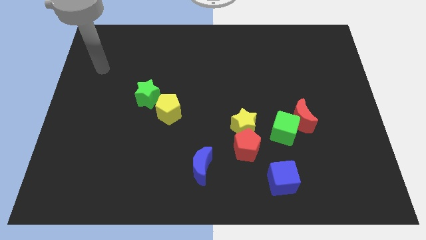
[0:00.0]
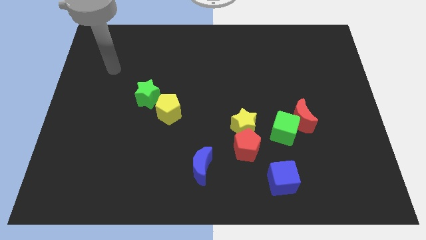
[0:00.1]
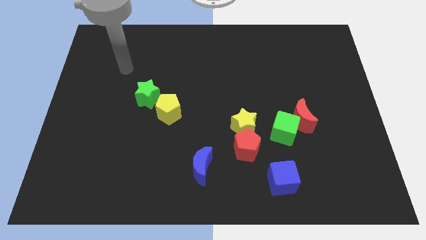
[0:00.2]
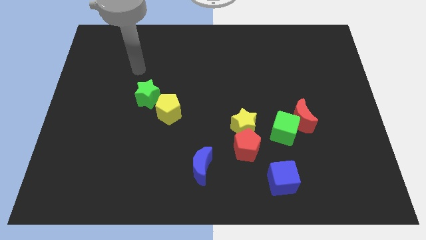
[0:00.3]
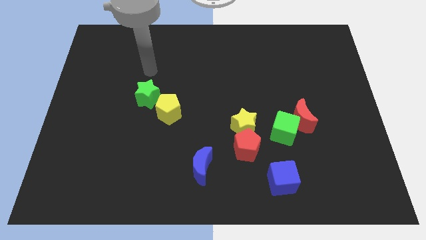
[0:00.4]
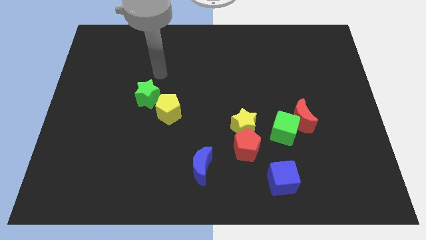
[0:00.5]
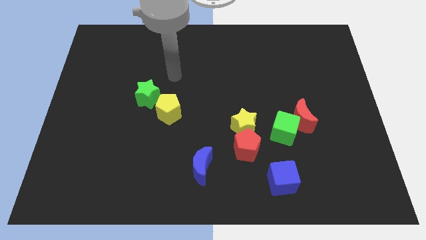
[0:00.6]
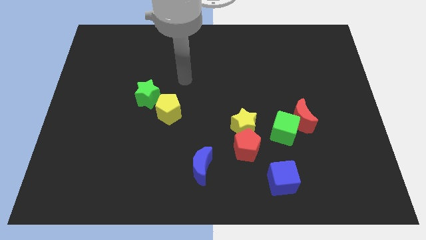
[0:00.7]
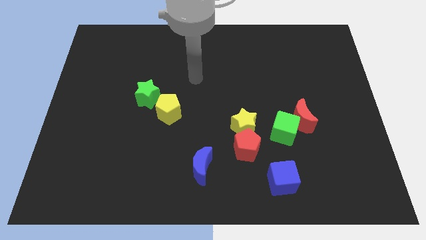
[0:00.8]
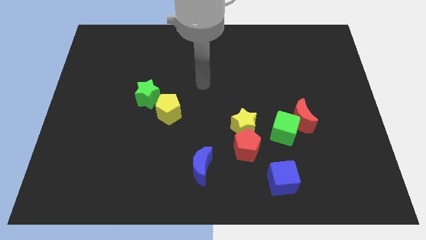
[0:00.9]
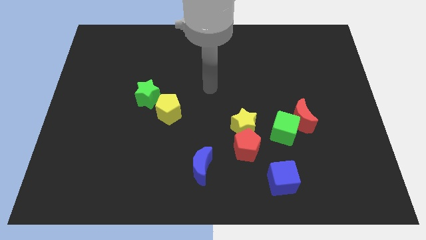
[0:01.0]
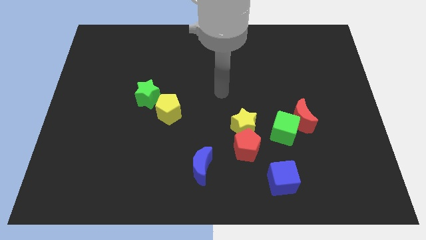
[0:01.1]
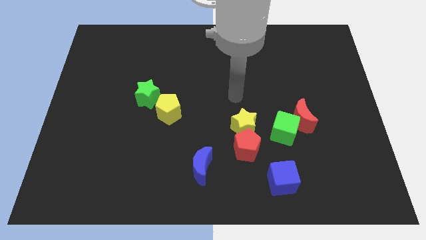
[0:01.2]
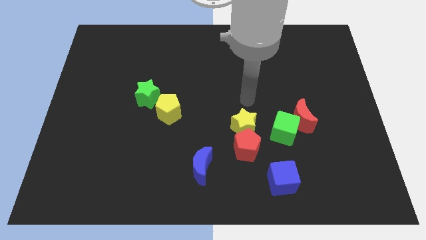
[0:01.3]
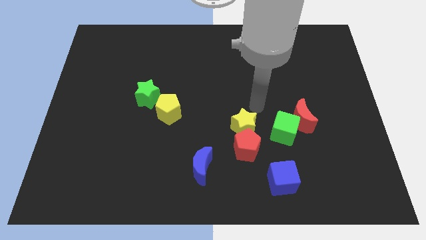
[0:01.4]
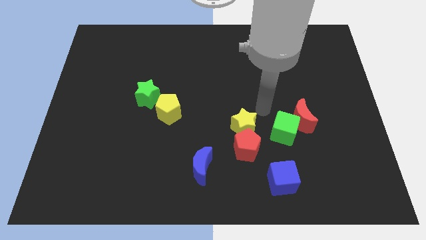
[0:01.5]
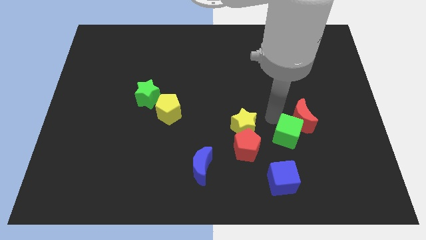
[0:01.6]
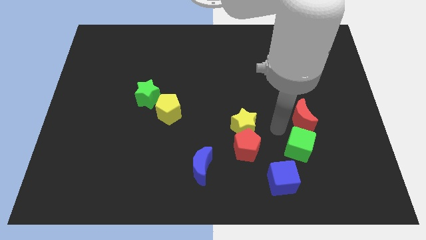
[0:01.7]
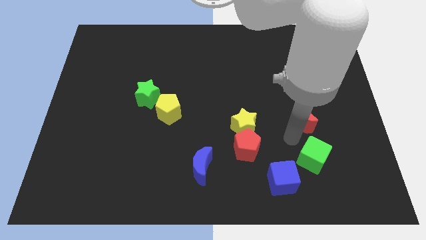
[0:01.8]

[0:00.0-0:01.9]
move the red moon away from the green cube

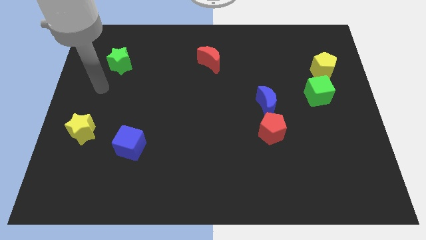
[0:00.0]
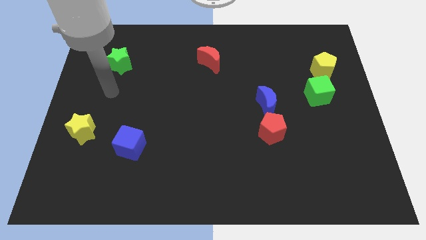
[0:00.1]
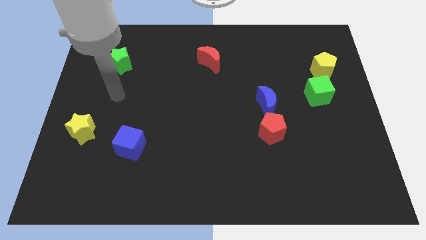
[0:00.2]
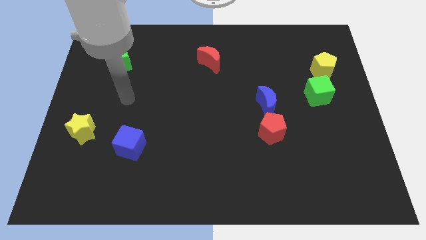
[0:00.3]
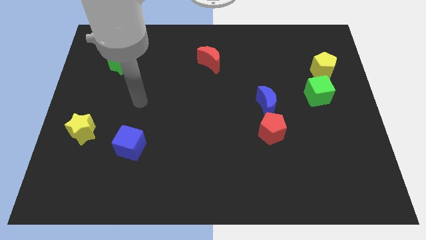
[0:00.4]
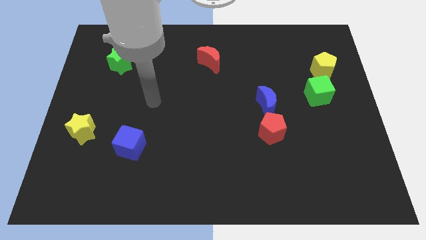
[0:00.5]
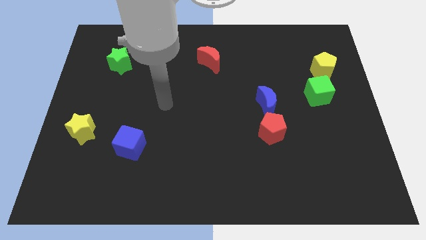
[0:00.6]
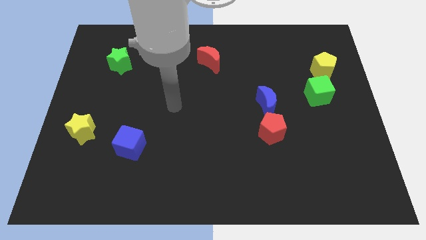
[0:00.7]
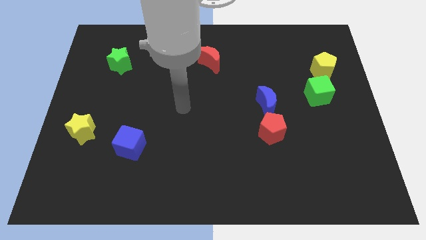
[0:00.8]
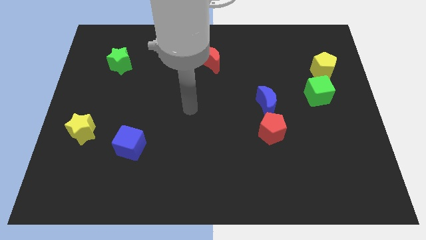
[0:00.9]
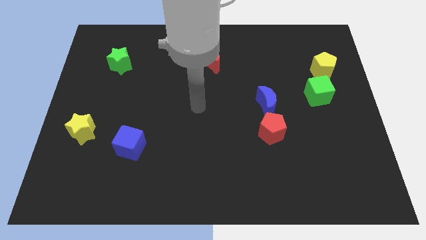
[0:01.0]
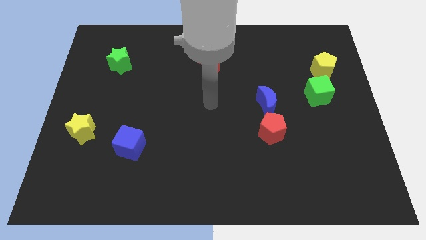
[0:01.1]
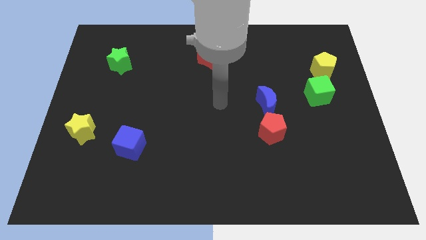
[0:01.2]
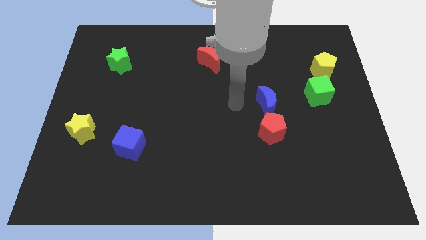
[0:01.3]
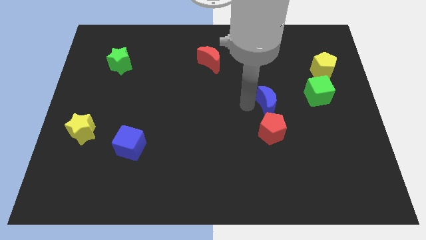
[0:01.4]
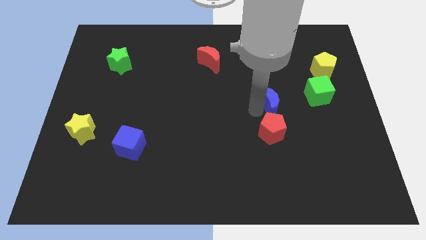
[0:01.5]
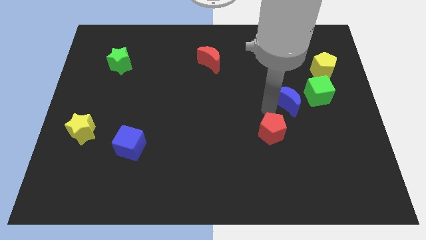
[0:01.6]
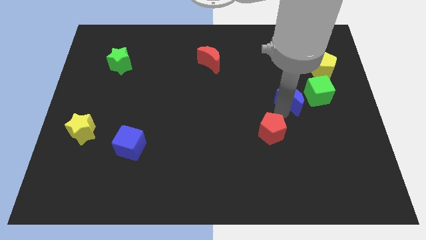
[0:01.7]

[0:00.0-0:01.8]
separate the red pentagon from the blue moon

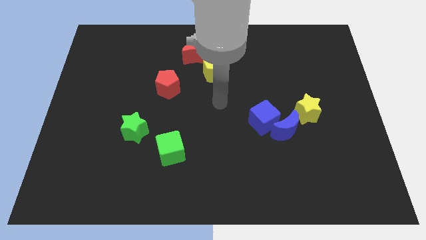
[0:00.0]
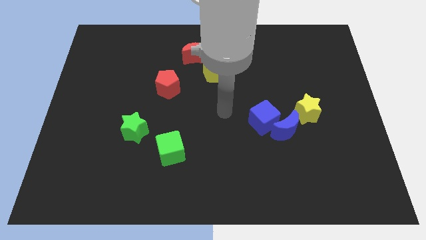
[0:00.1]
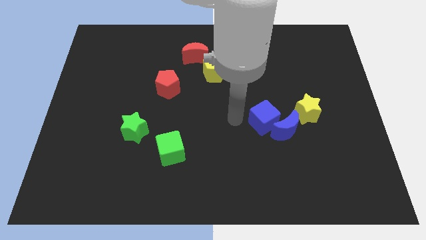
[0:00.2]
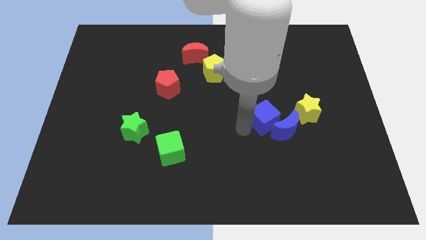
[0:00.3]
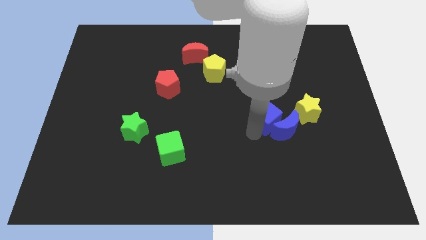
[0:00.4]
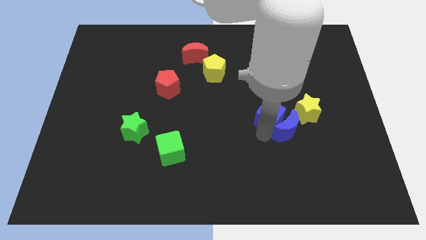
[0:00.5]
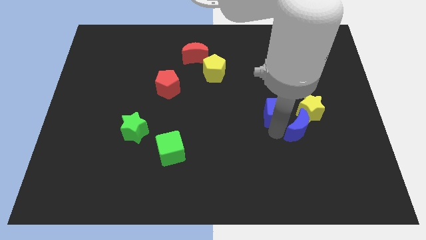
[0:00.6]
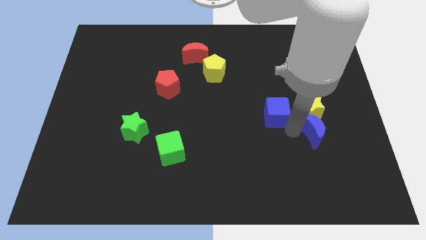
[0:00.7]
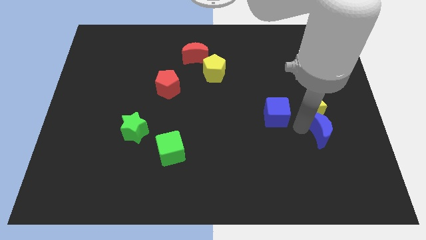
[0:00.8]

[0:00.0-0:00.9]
pull the blue cube apart from the blue moon

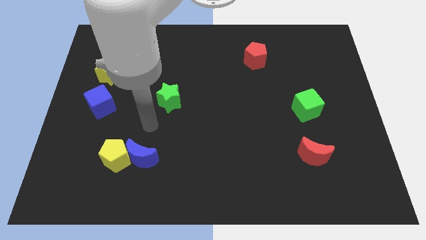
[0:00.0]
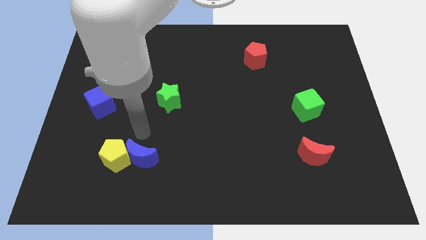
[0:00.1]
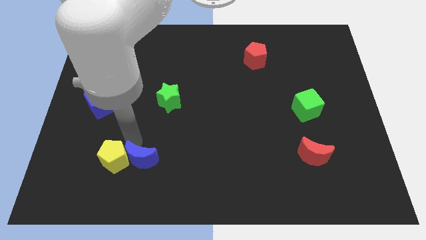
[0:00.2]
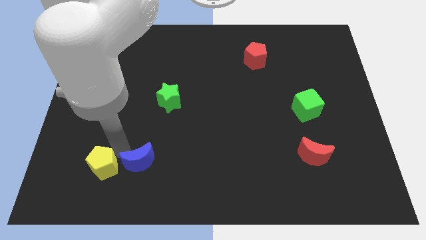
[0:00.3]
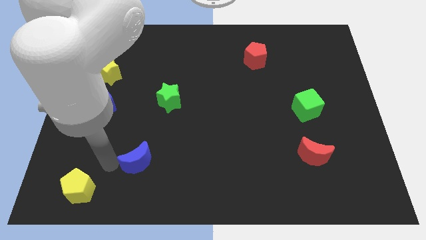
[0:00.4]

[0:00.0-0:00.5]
pull the blue moon apart from the yellow pentagon

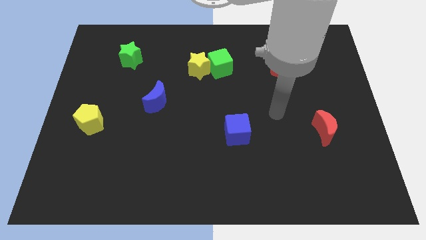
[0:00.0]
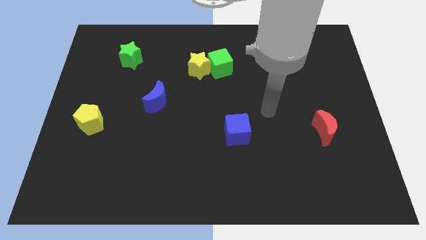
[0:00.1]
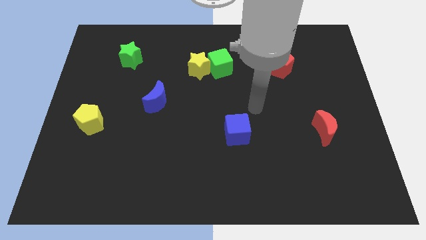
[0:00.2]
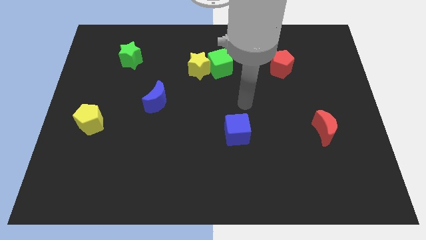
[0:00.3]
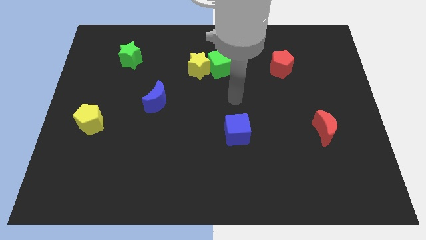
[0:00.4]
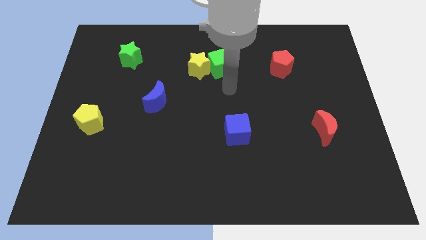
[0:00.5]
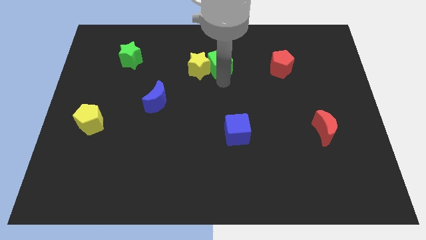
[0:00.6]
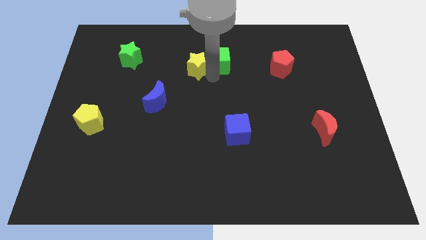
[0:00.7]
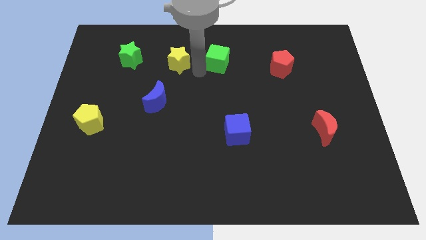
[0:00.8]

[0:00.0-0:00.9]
pull the green cube apart from the yellow star

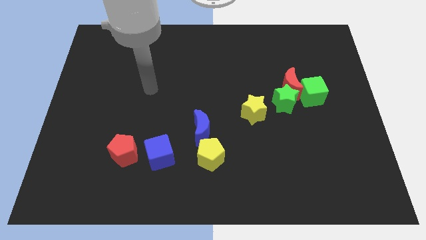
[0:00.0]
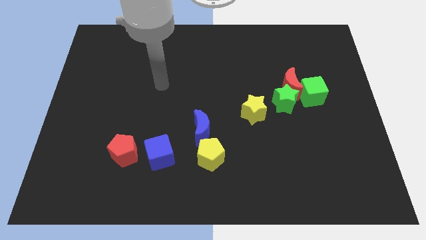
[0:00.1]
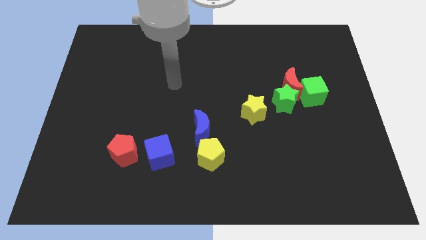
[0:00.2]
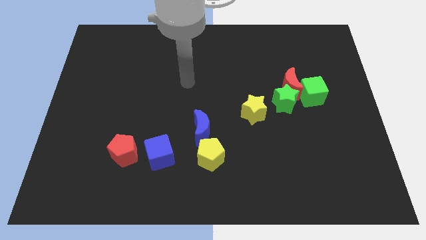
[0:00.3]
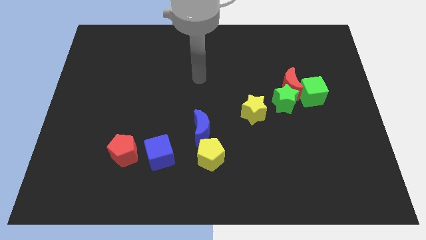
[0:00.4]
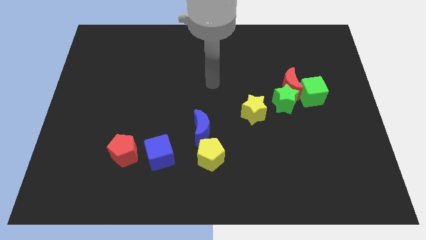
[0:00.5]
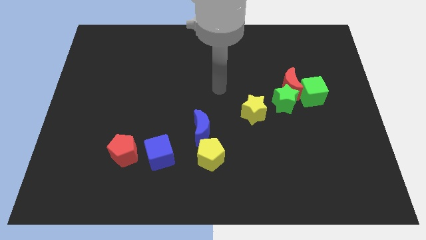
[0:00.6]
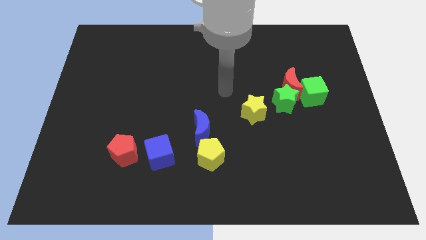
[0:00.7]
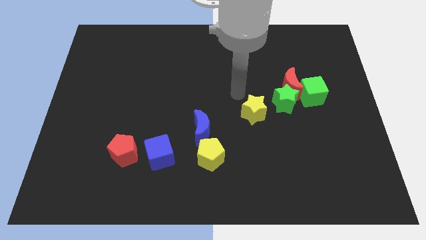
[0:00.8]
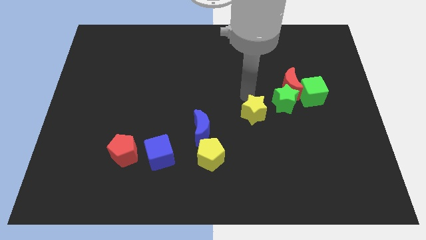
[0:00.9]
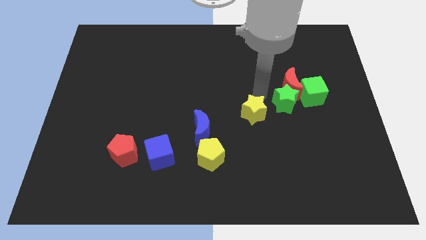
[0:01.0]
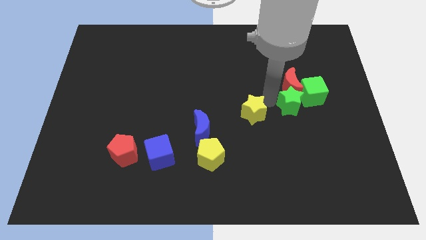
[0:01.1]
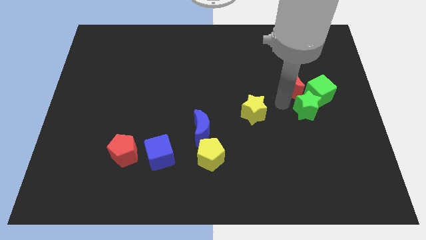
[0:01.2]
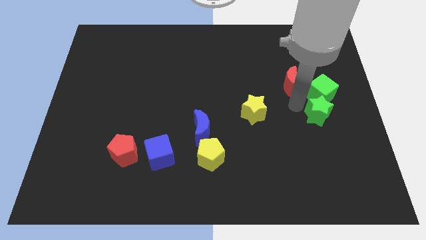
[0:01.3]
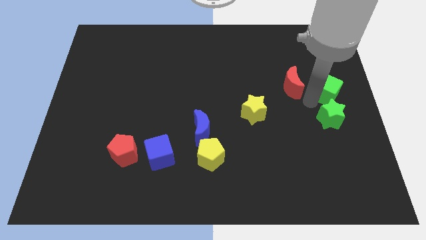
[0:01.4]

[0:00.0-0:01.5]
pull the red moon apart from the green star and green cube

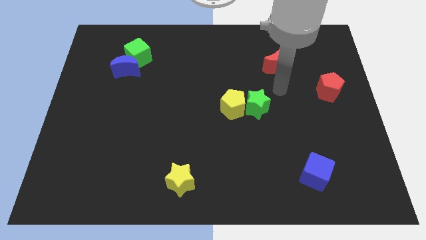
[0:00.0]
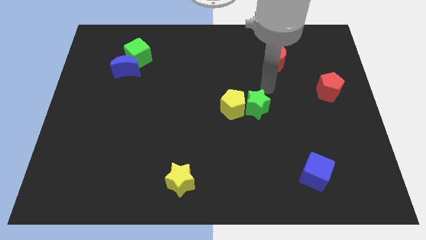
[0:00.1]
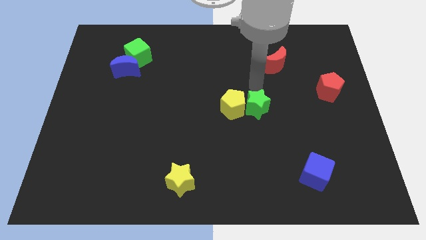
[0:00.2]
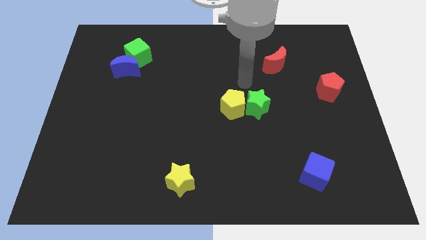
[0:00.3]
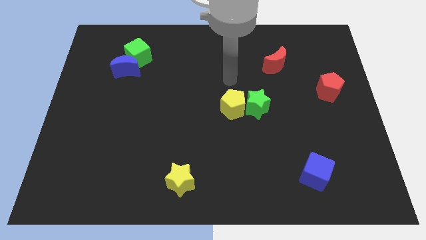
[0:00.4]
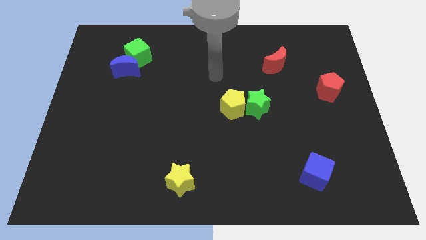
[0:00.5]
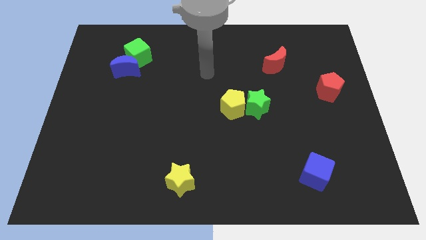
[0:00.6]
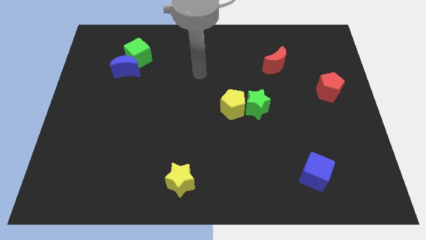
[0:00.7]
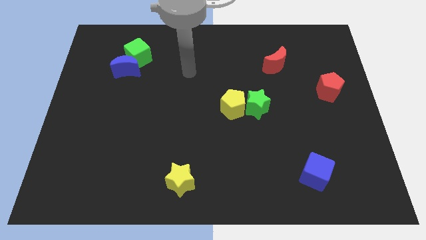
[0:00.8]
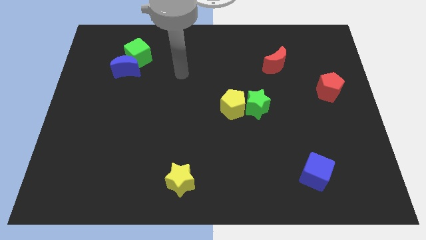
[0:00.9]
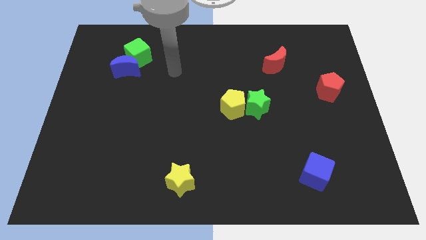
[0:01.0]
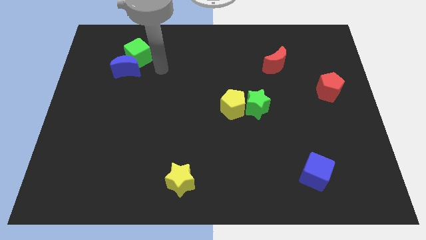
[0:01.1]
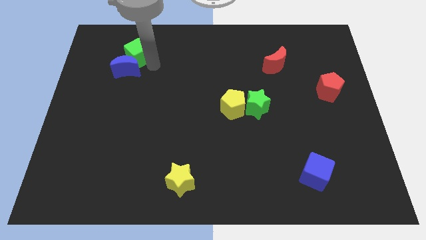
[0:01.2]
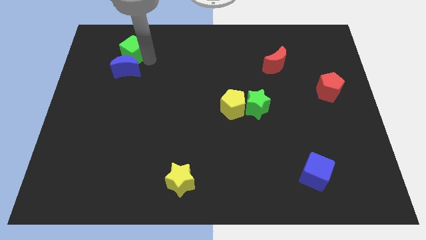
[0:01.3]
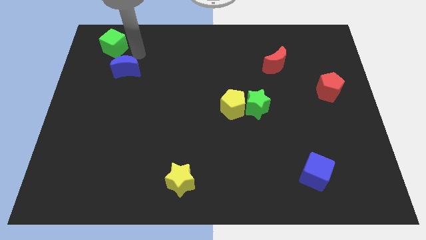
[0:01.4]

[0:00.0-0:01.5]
pull the blue moon apart from the green cube

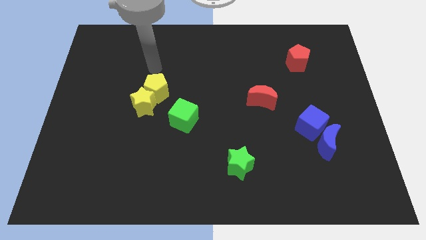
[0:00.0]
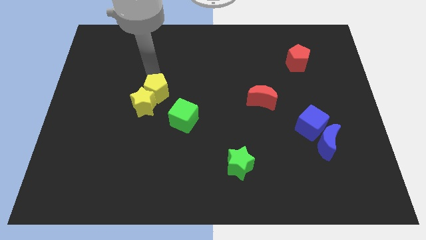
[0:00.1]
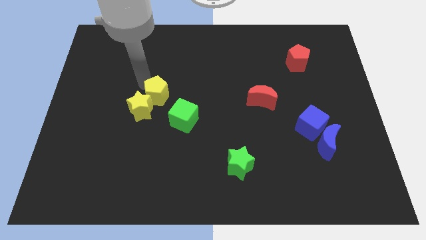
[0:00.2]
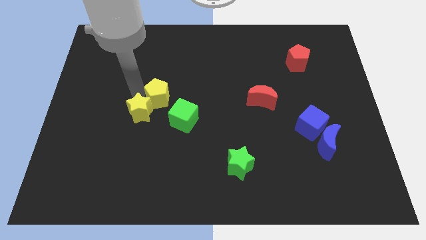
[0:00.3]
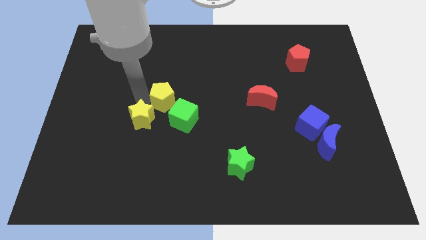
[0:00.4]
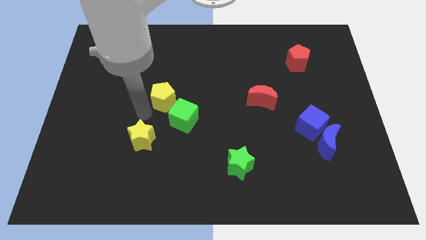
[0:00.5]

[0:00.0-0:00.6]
pull the yellow pentagon apart from the yellow star
